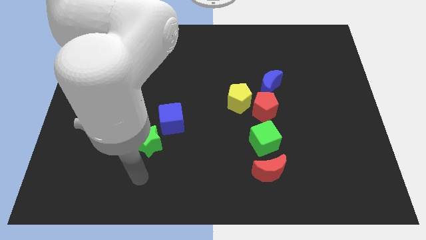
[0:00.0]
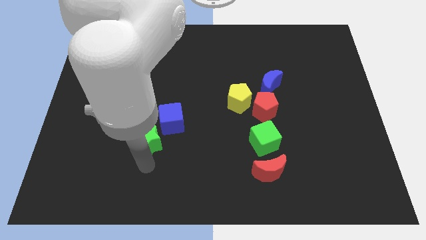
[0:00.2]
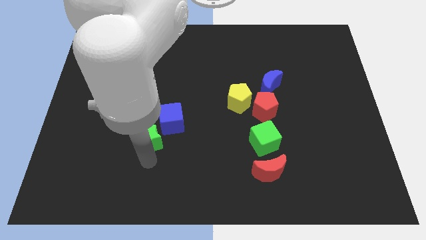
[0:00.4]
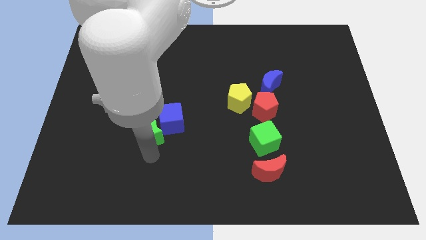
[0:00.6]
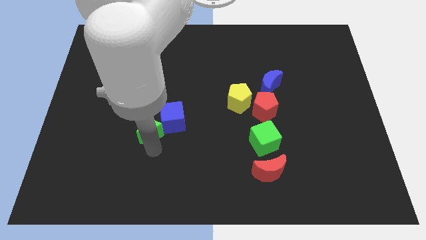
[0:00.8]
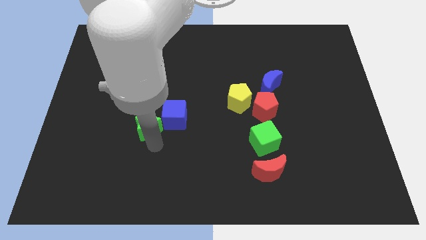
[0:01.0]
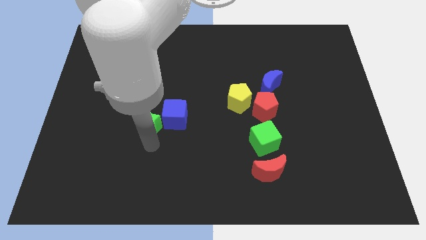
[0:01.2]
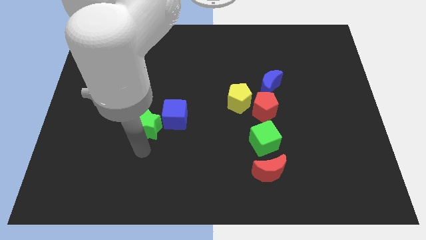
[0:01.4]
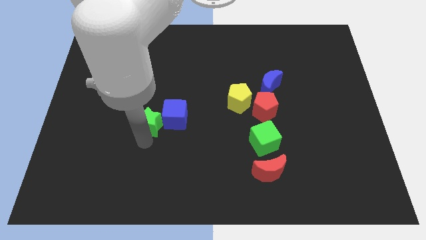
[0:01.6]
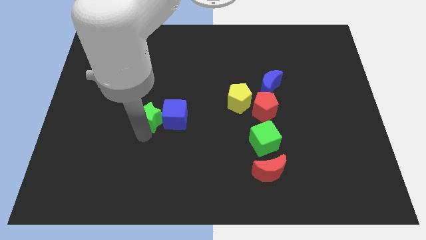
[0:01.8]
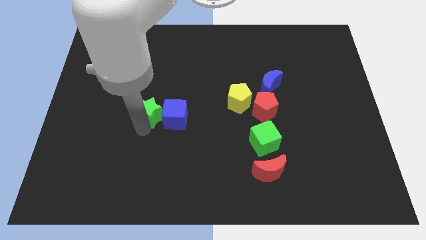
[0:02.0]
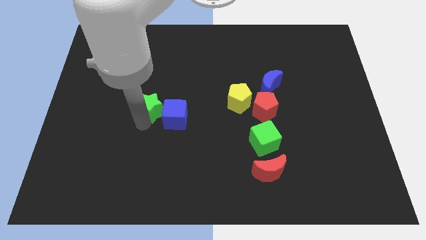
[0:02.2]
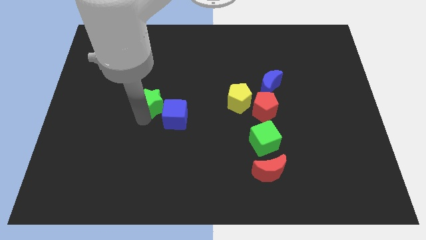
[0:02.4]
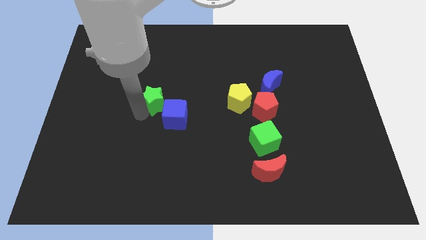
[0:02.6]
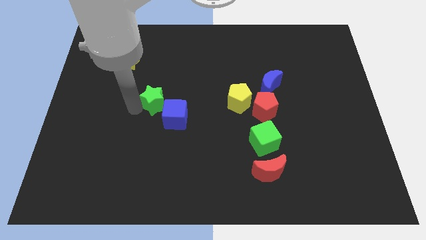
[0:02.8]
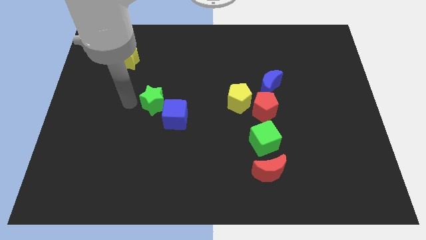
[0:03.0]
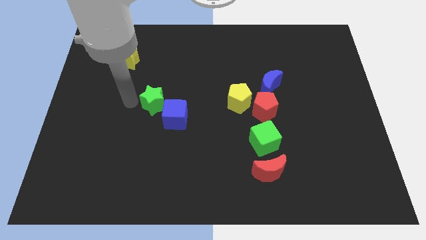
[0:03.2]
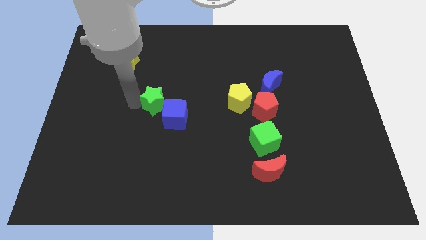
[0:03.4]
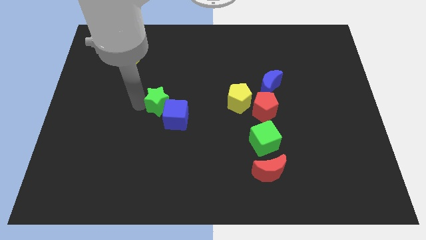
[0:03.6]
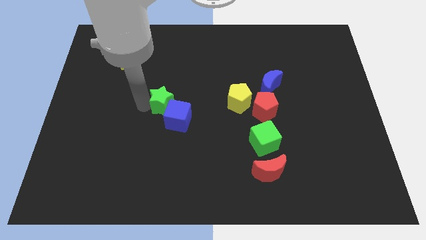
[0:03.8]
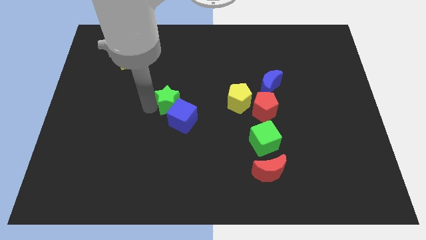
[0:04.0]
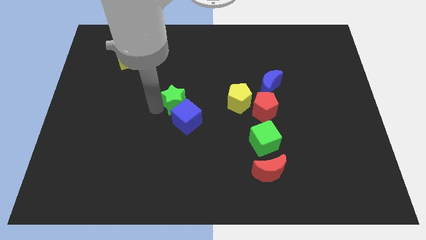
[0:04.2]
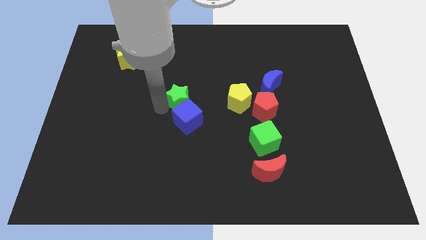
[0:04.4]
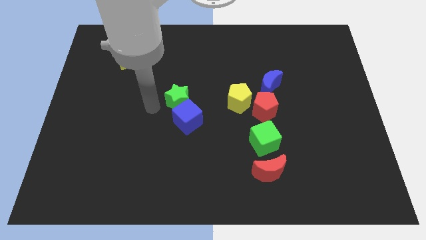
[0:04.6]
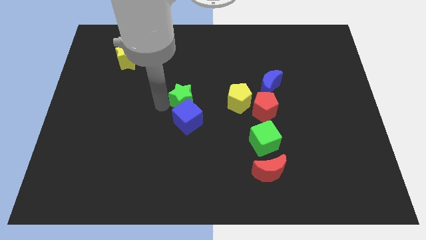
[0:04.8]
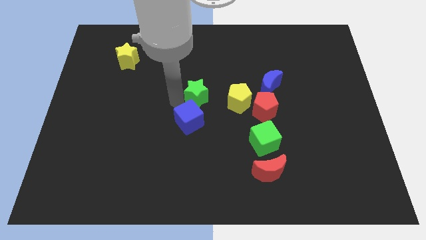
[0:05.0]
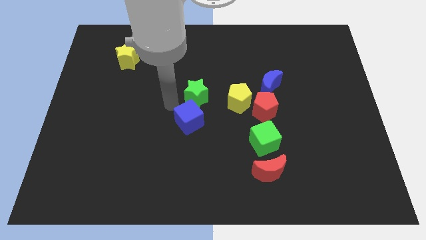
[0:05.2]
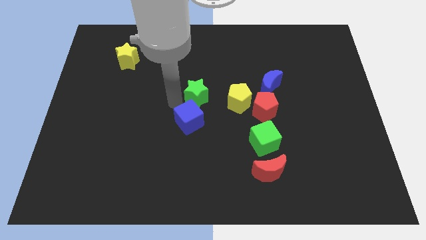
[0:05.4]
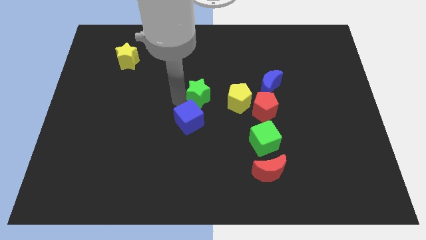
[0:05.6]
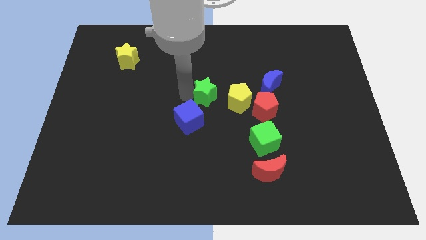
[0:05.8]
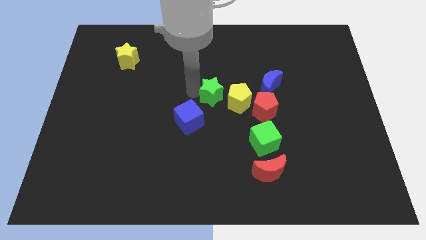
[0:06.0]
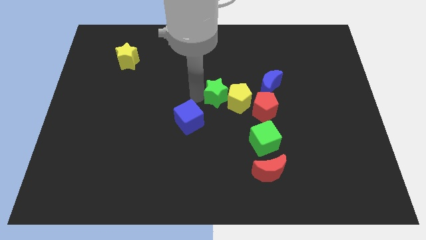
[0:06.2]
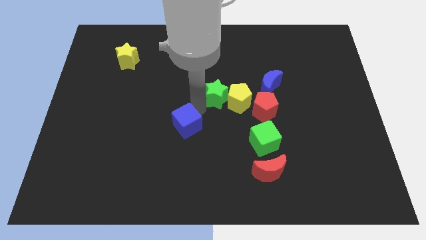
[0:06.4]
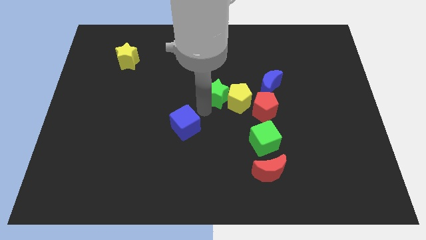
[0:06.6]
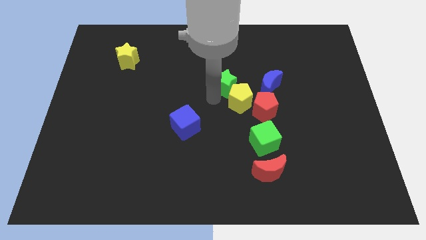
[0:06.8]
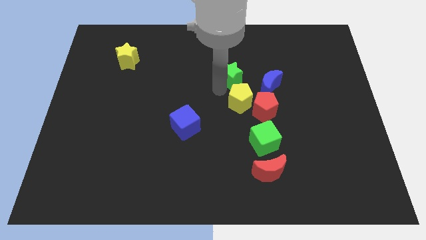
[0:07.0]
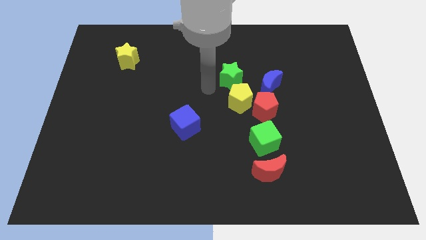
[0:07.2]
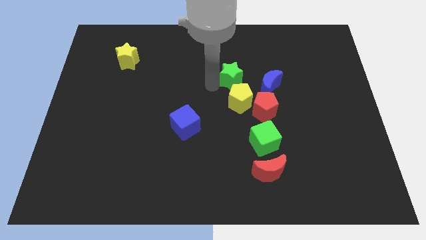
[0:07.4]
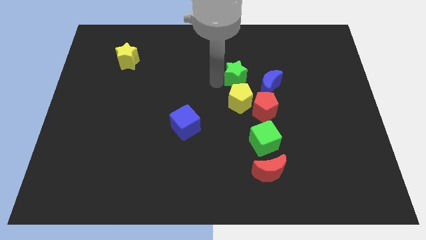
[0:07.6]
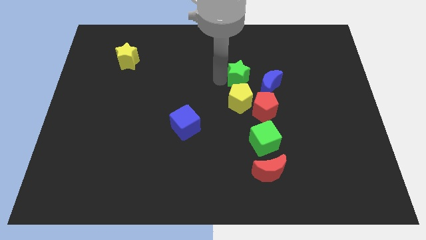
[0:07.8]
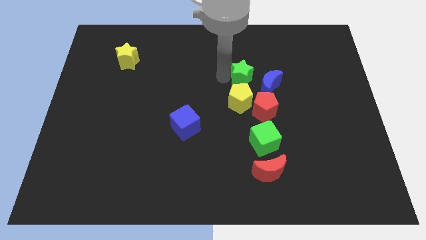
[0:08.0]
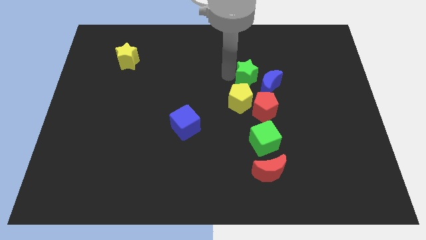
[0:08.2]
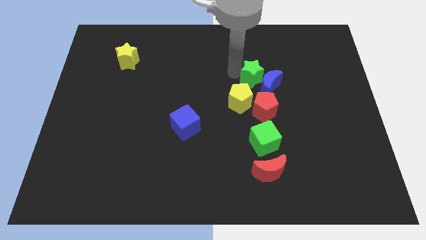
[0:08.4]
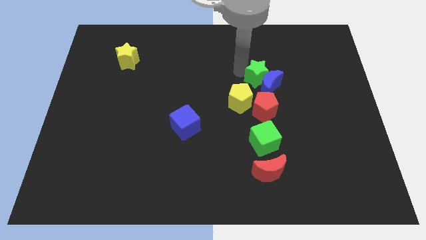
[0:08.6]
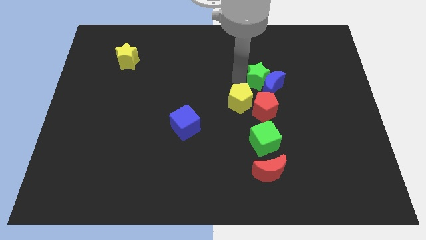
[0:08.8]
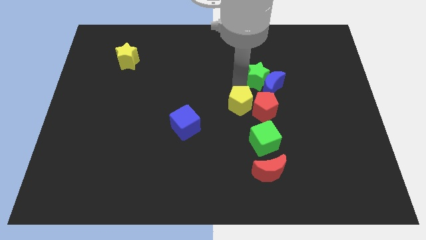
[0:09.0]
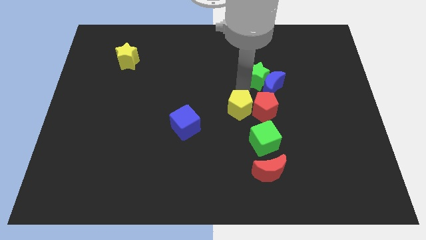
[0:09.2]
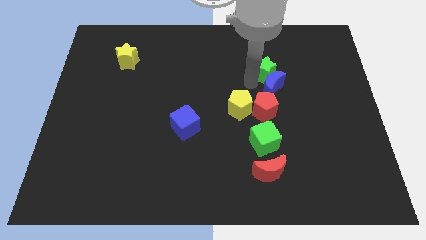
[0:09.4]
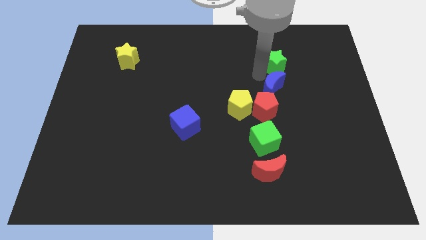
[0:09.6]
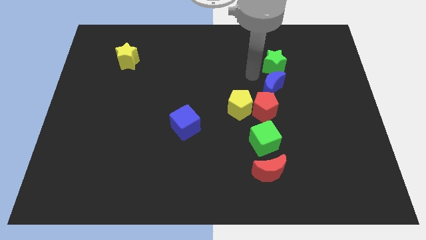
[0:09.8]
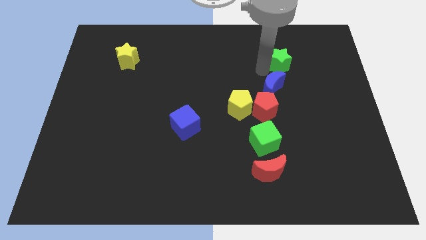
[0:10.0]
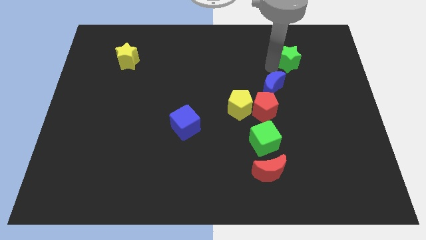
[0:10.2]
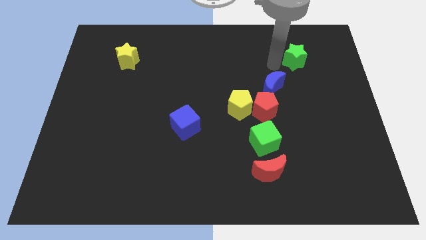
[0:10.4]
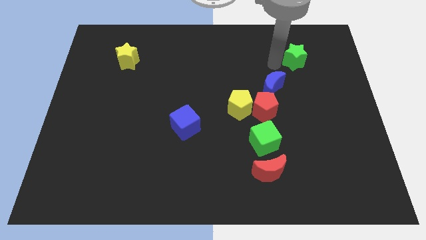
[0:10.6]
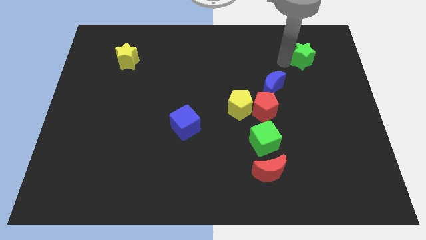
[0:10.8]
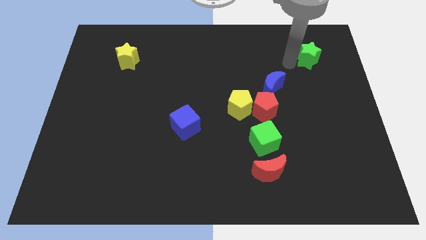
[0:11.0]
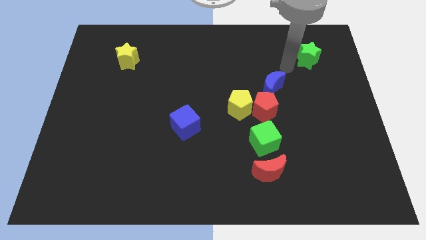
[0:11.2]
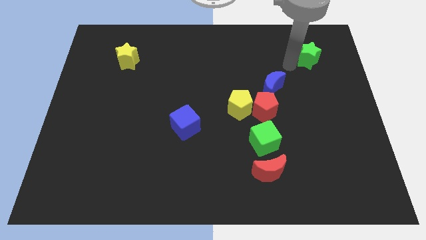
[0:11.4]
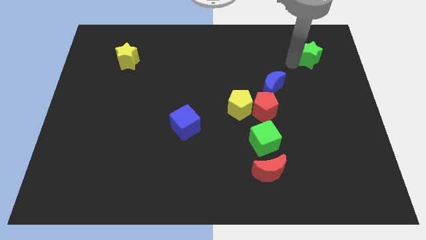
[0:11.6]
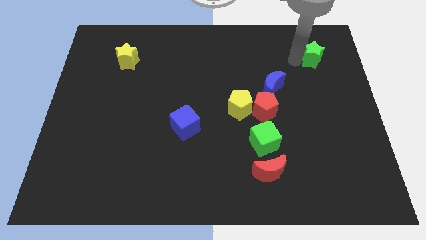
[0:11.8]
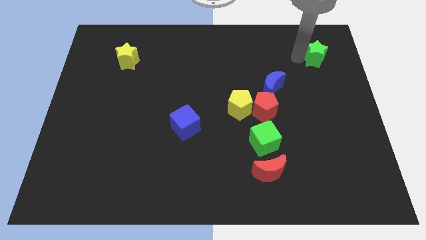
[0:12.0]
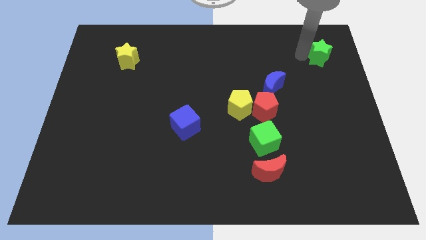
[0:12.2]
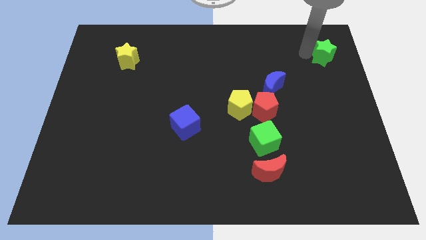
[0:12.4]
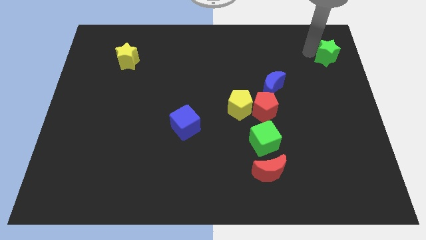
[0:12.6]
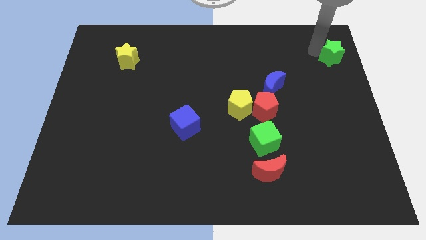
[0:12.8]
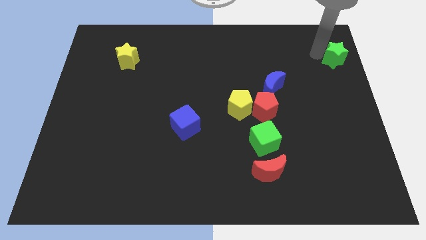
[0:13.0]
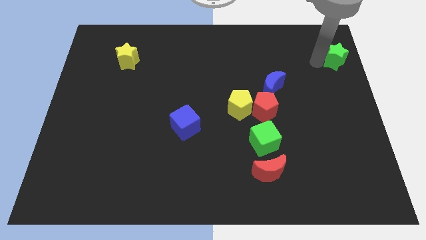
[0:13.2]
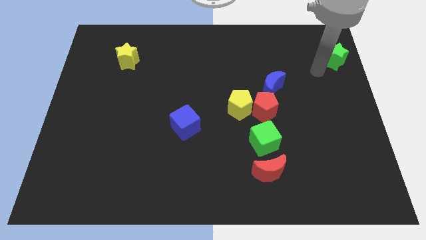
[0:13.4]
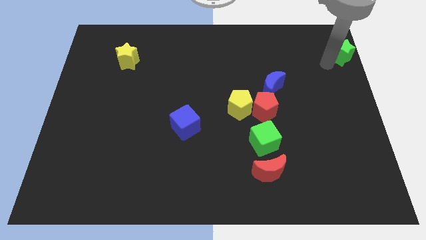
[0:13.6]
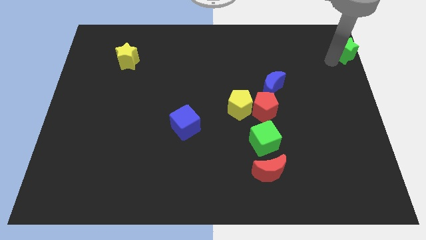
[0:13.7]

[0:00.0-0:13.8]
slide the green star to the top right of the board
